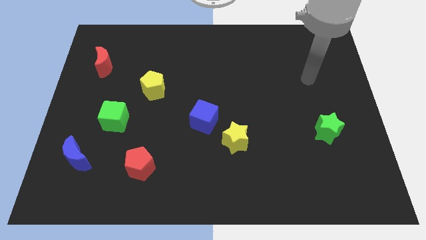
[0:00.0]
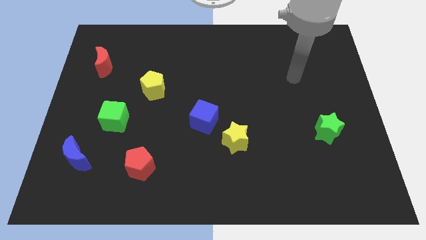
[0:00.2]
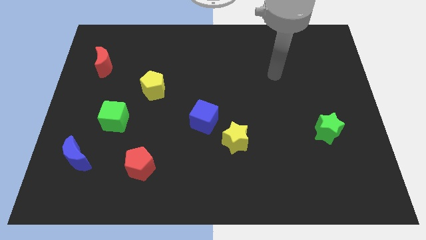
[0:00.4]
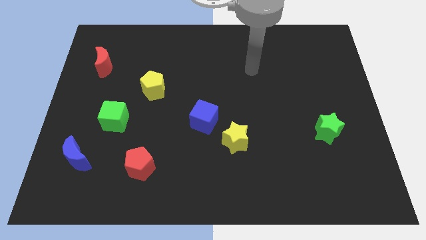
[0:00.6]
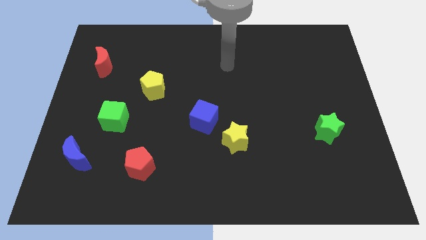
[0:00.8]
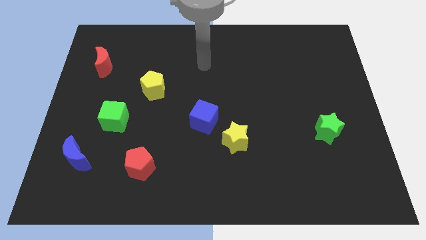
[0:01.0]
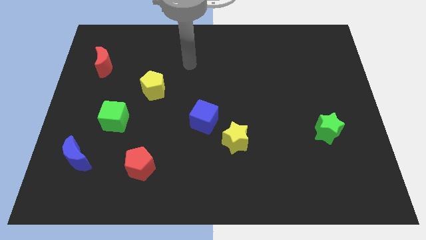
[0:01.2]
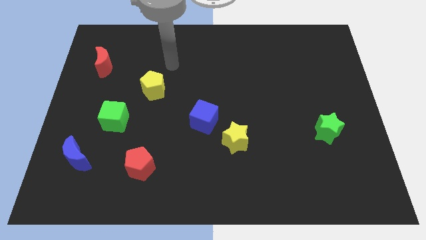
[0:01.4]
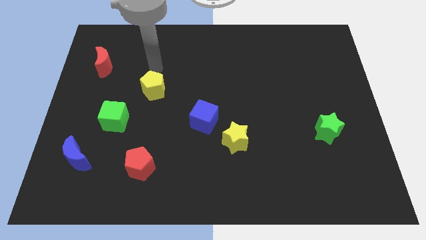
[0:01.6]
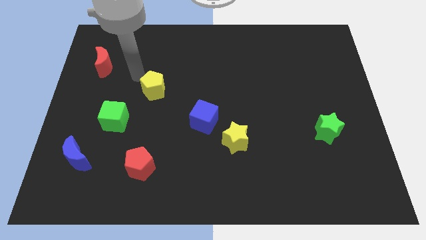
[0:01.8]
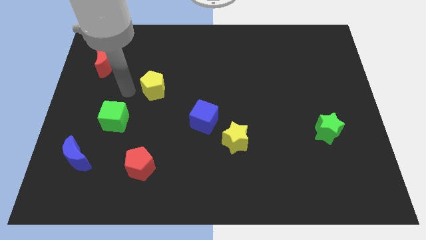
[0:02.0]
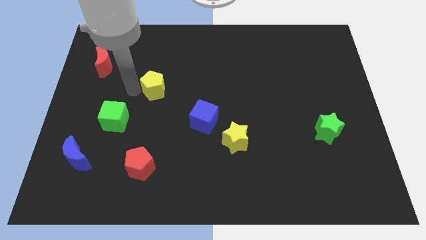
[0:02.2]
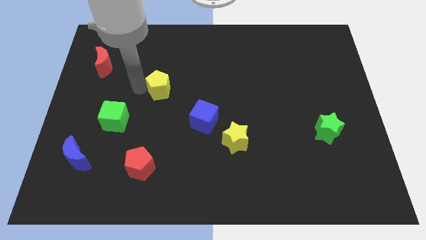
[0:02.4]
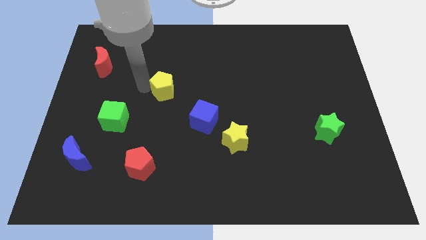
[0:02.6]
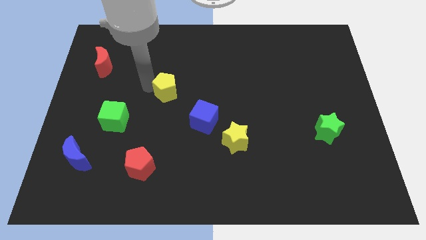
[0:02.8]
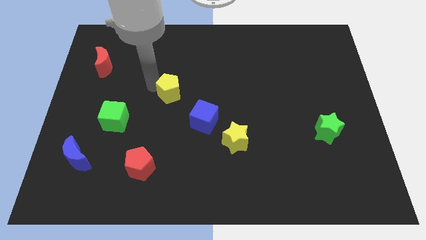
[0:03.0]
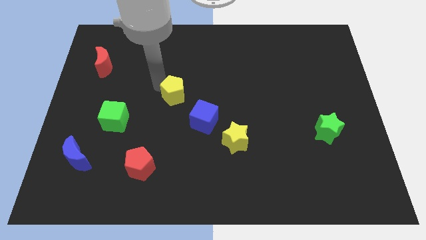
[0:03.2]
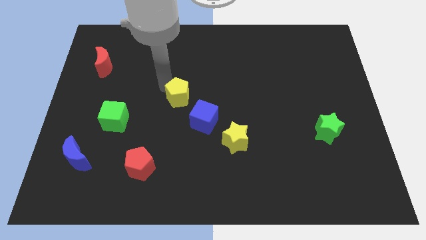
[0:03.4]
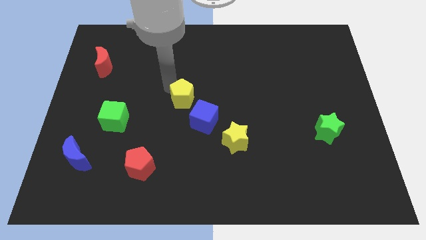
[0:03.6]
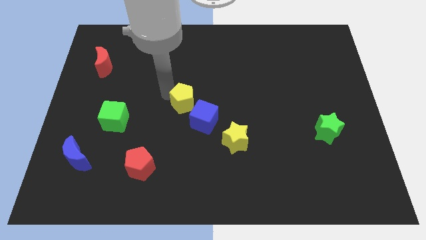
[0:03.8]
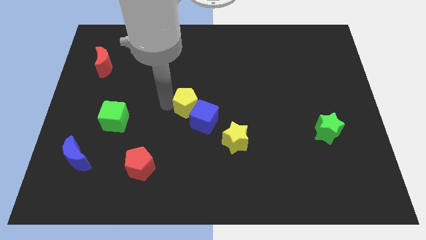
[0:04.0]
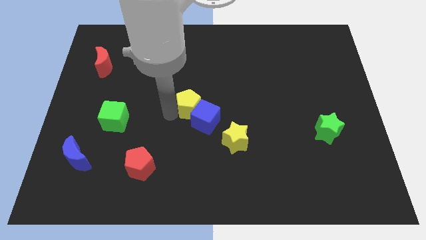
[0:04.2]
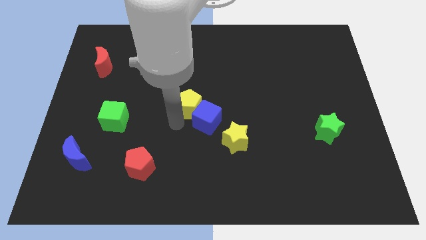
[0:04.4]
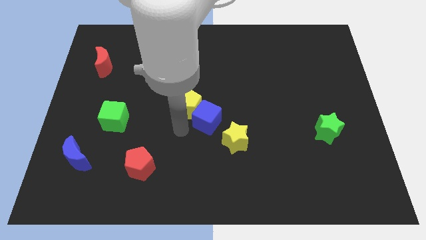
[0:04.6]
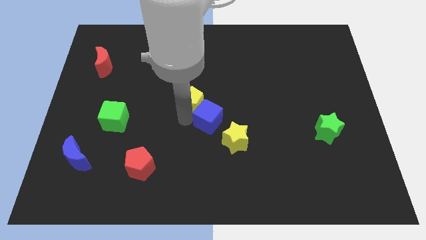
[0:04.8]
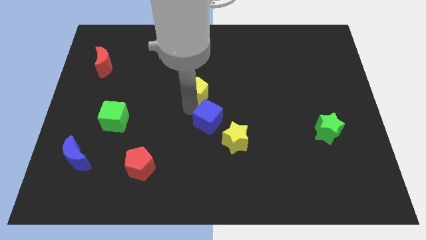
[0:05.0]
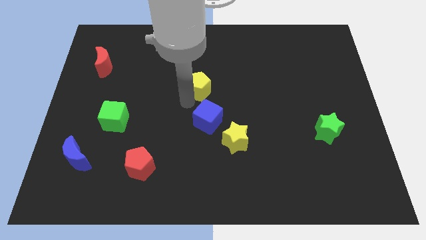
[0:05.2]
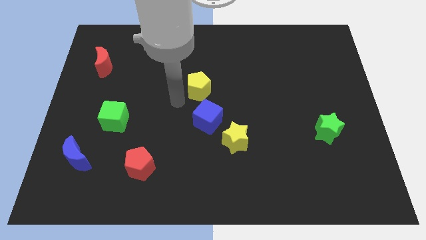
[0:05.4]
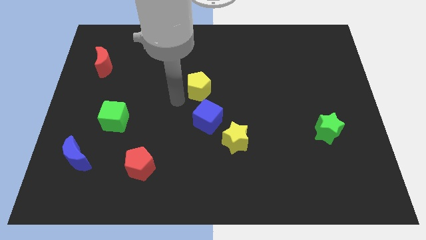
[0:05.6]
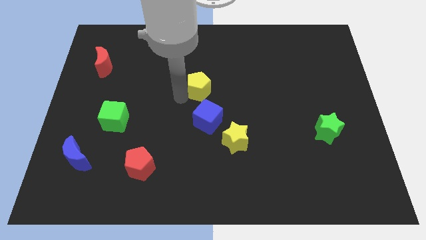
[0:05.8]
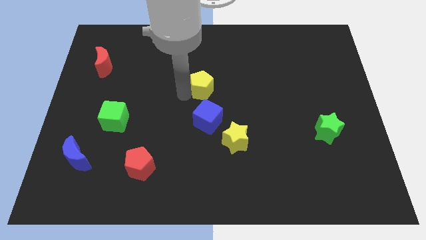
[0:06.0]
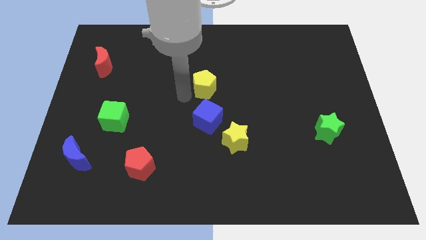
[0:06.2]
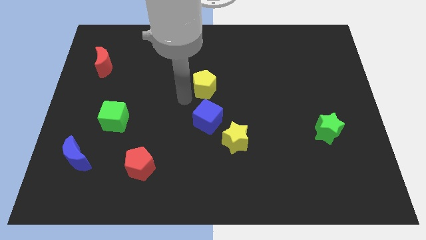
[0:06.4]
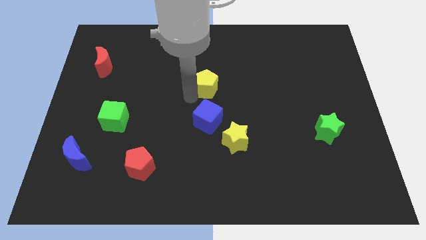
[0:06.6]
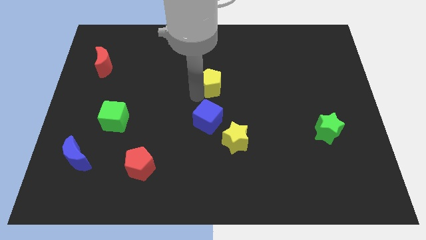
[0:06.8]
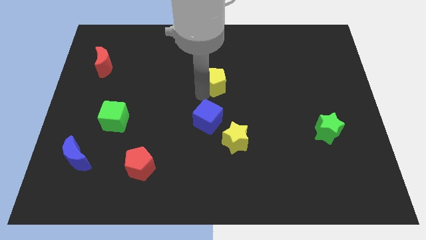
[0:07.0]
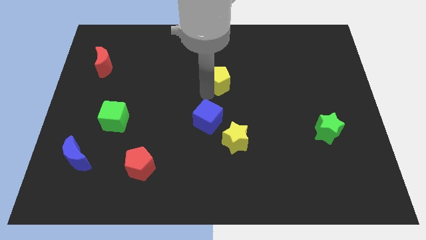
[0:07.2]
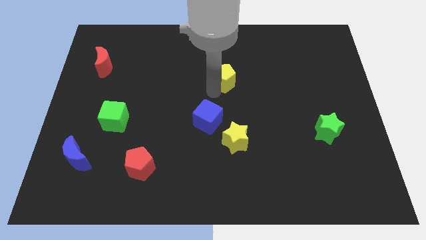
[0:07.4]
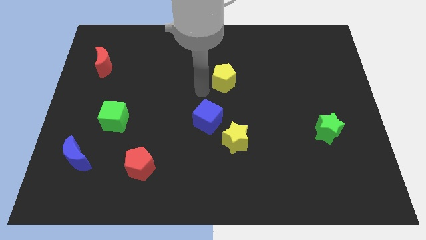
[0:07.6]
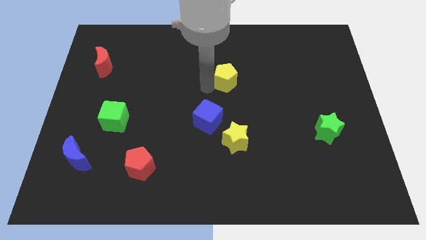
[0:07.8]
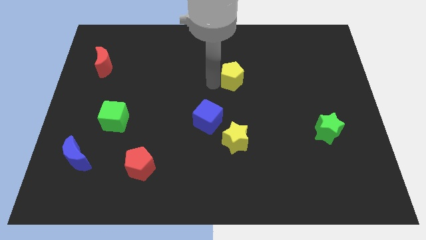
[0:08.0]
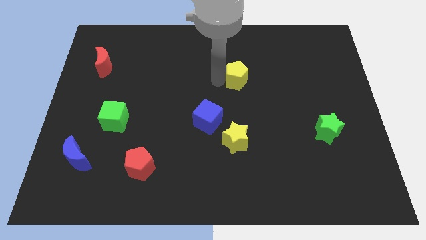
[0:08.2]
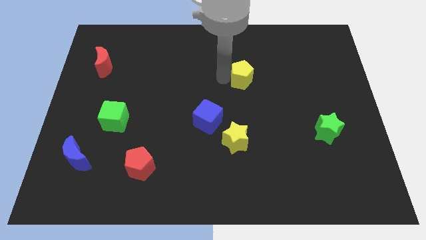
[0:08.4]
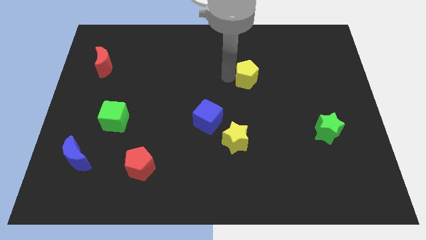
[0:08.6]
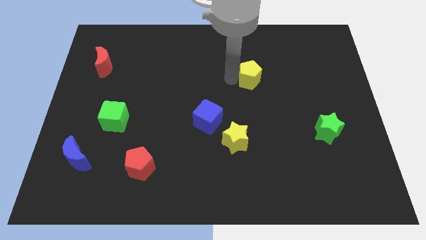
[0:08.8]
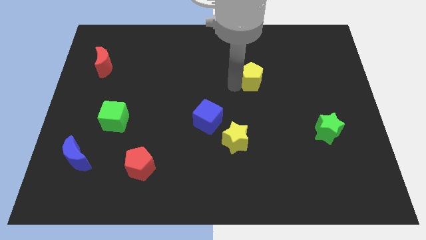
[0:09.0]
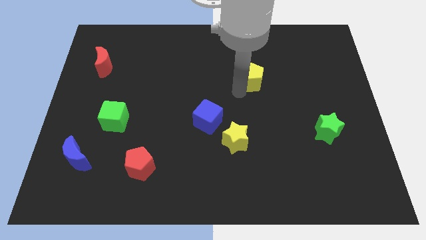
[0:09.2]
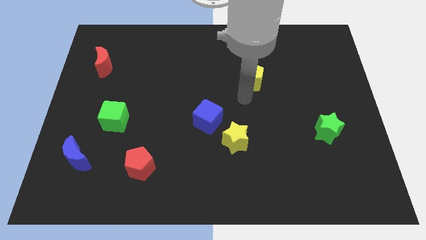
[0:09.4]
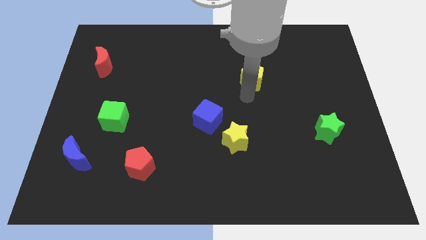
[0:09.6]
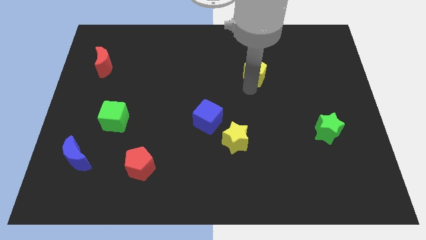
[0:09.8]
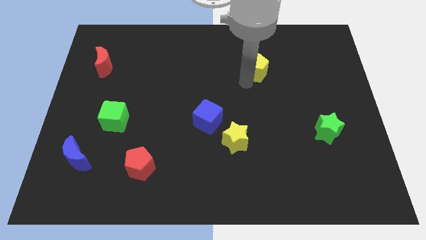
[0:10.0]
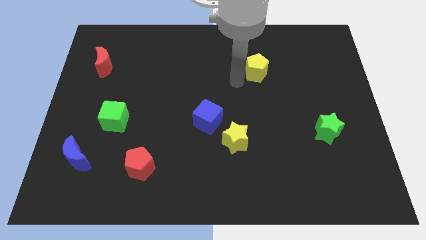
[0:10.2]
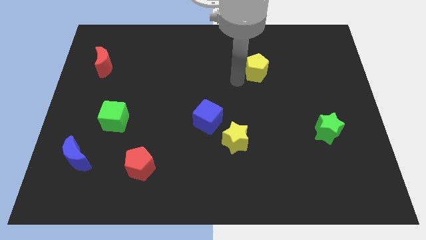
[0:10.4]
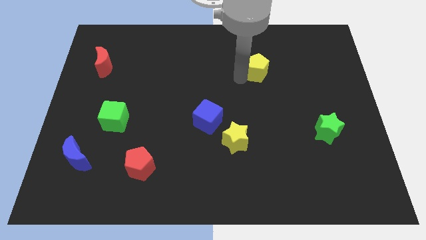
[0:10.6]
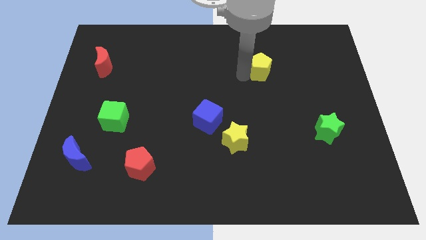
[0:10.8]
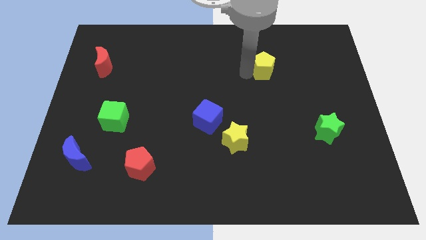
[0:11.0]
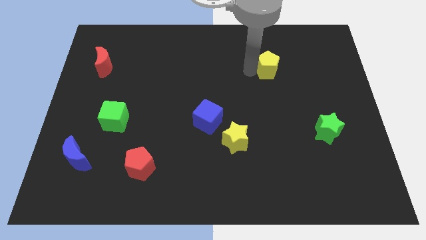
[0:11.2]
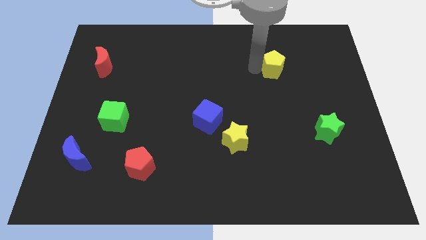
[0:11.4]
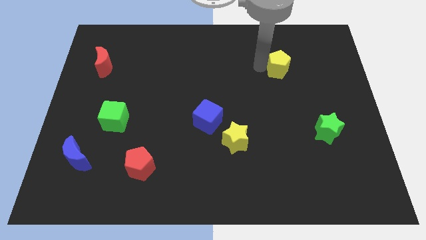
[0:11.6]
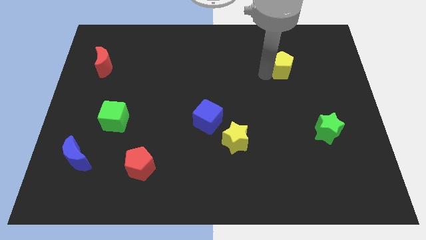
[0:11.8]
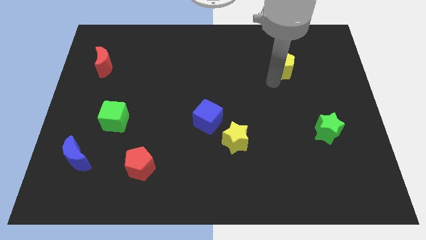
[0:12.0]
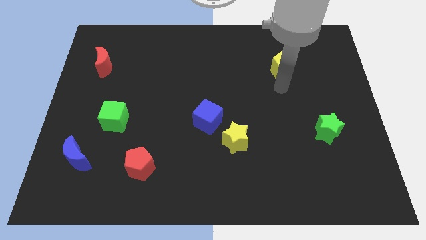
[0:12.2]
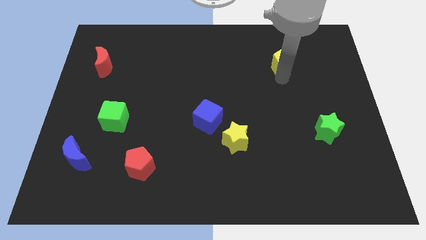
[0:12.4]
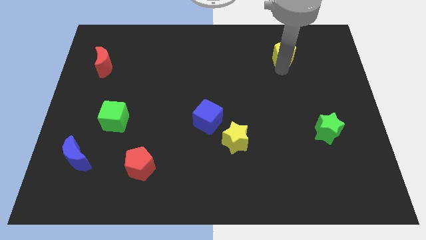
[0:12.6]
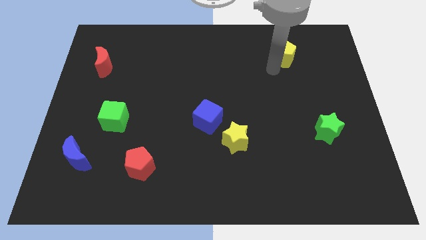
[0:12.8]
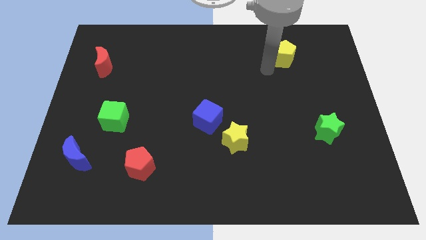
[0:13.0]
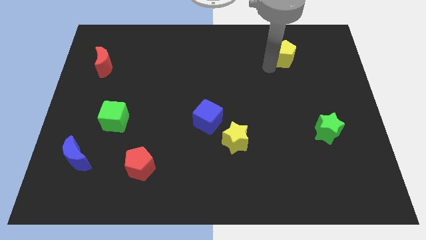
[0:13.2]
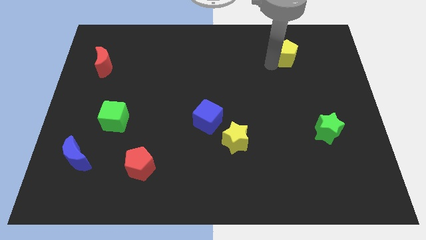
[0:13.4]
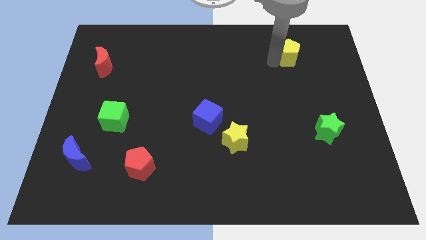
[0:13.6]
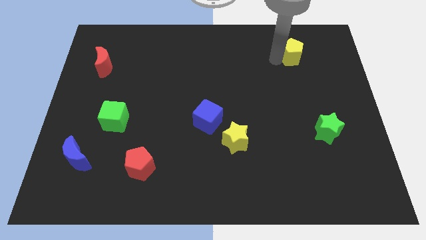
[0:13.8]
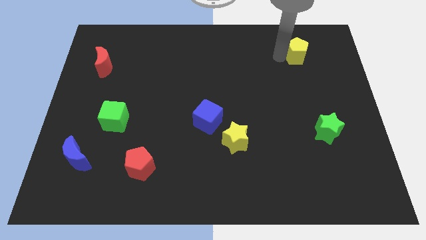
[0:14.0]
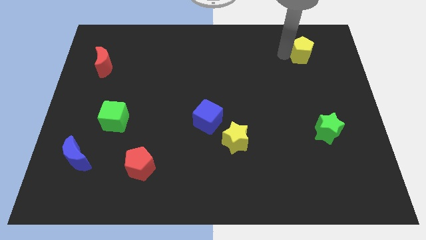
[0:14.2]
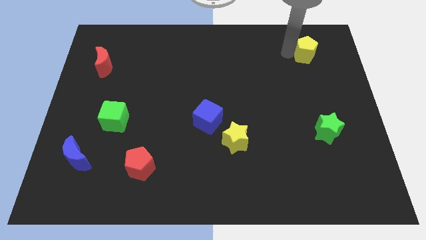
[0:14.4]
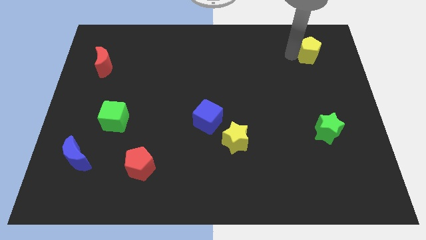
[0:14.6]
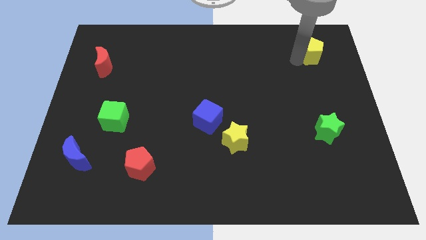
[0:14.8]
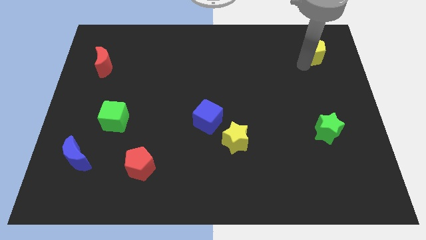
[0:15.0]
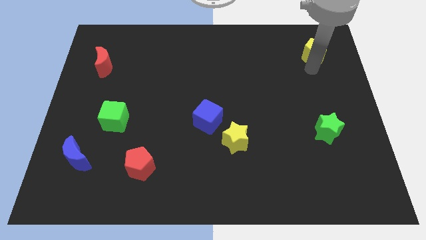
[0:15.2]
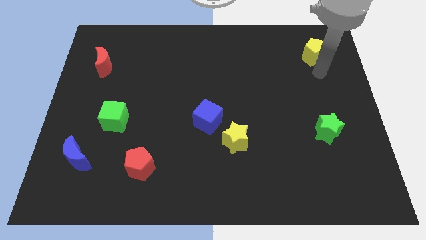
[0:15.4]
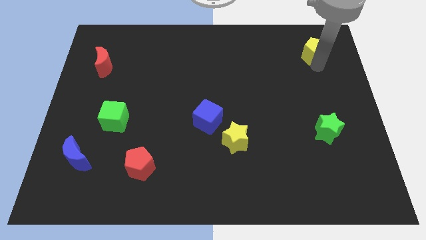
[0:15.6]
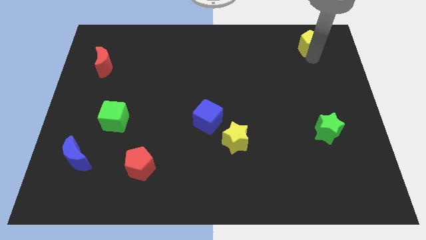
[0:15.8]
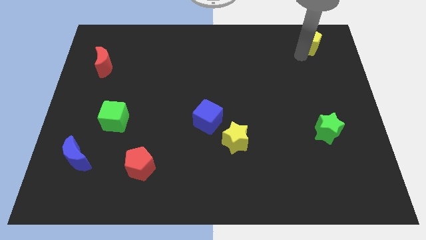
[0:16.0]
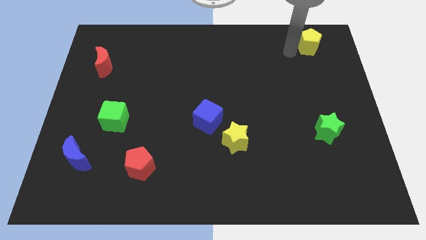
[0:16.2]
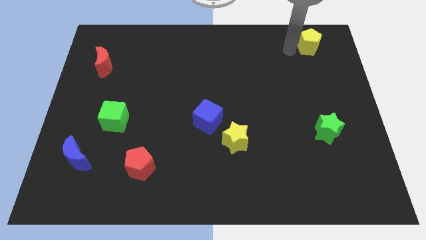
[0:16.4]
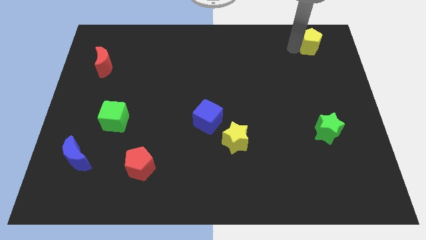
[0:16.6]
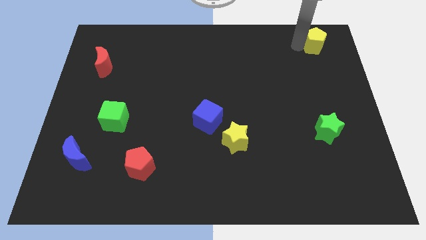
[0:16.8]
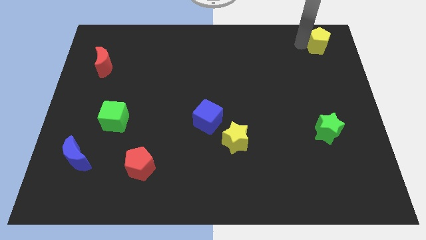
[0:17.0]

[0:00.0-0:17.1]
move the yellow pentagon to the top right
